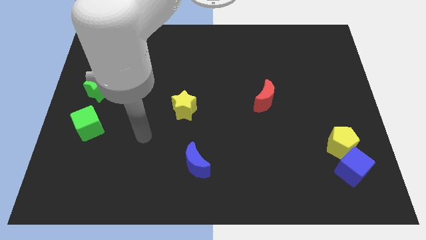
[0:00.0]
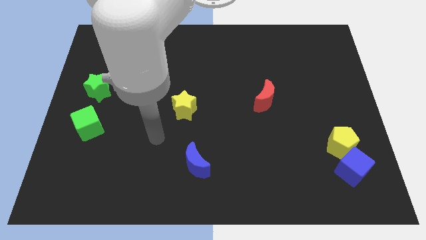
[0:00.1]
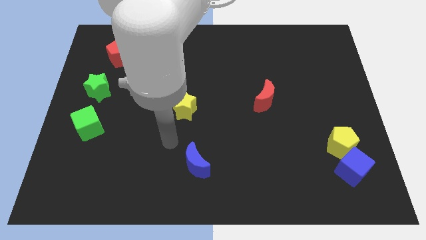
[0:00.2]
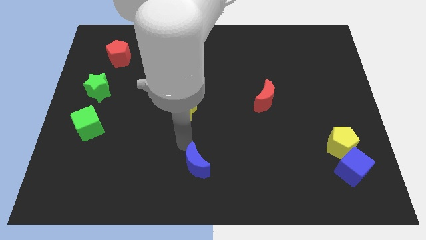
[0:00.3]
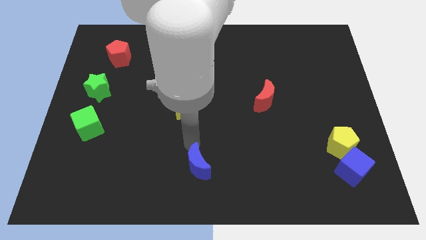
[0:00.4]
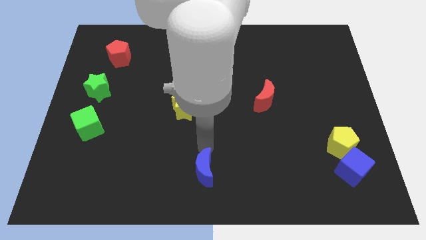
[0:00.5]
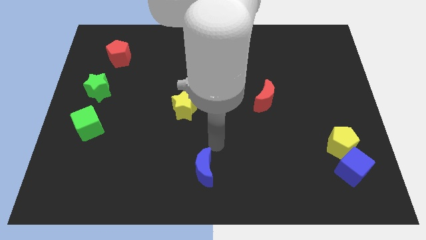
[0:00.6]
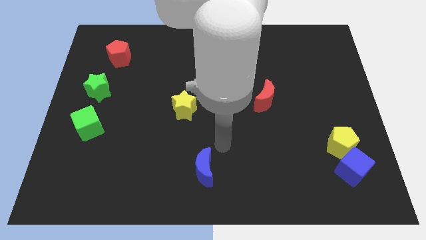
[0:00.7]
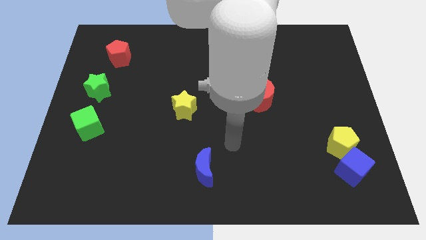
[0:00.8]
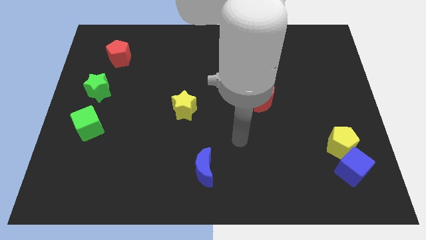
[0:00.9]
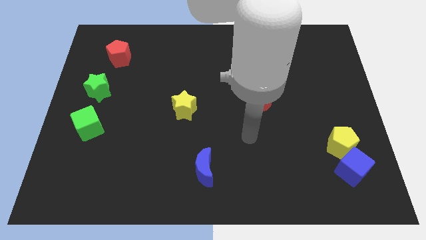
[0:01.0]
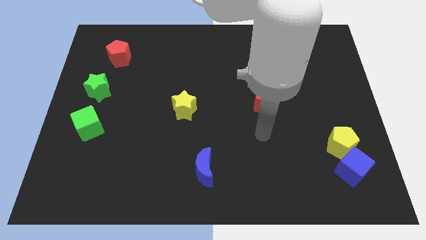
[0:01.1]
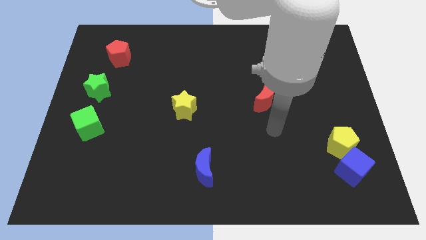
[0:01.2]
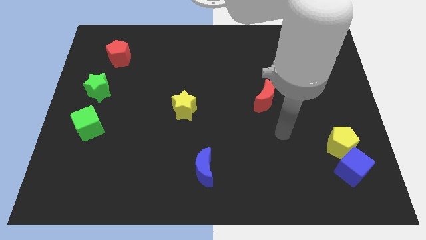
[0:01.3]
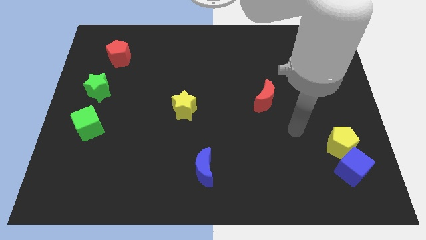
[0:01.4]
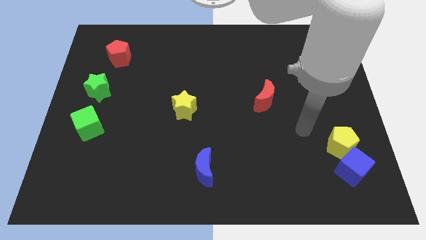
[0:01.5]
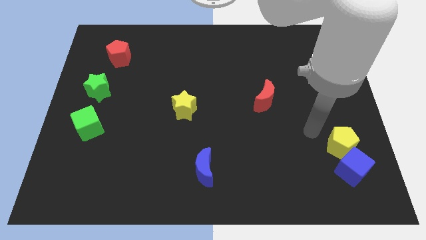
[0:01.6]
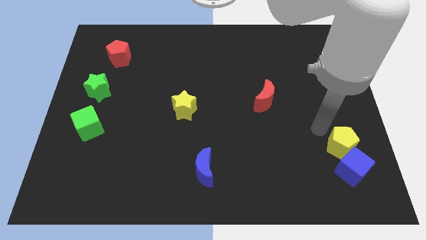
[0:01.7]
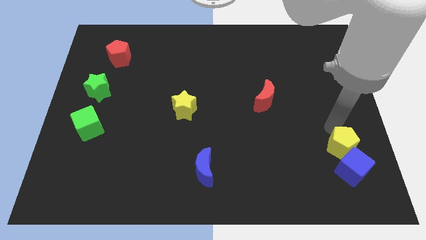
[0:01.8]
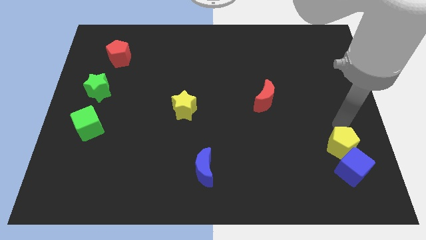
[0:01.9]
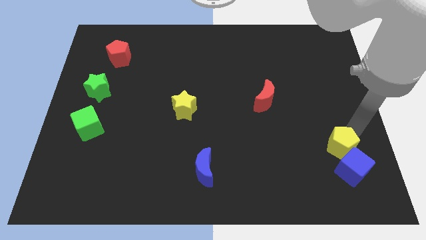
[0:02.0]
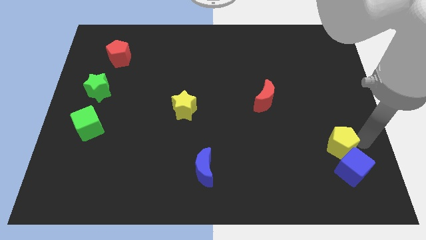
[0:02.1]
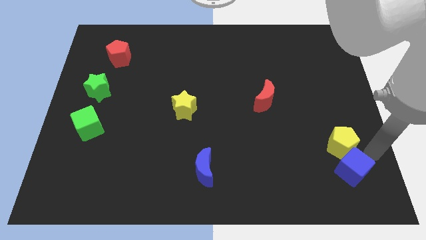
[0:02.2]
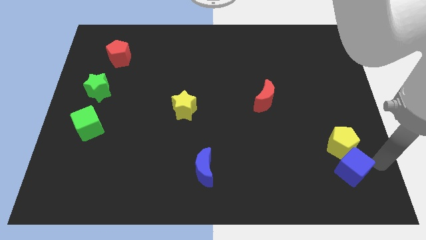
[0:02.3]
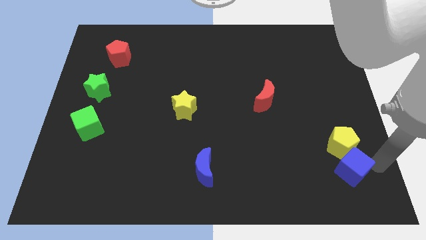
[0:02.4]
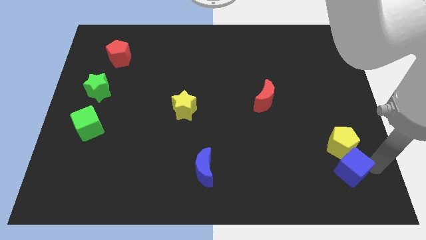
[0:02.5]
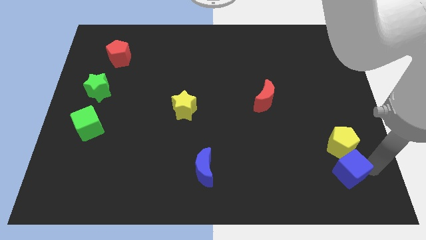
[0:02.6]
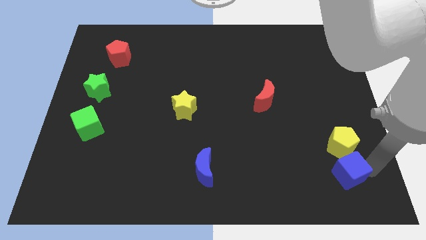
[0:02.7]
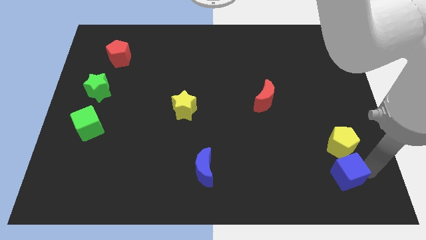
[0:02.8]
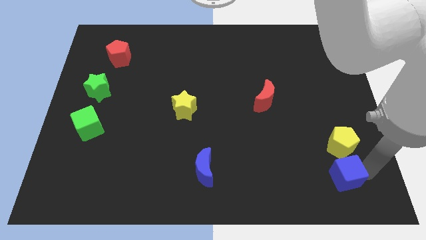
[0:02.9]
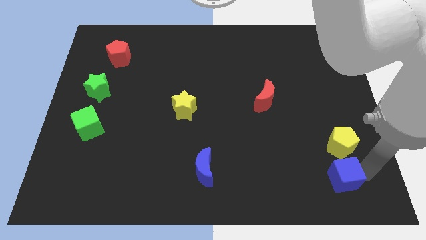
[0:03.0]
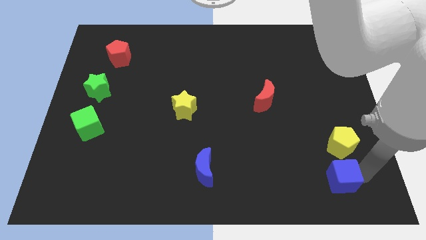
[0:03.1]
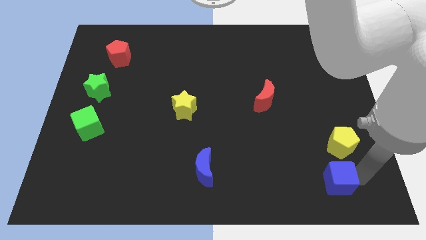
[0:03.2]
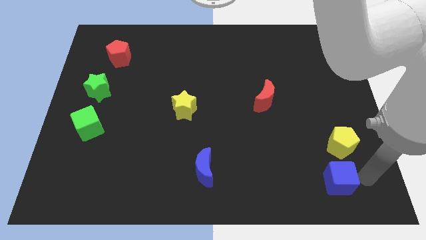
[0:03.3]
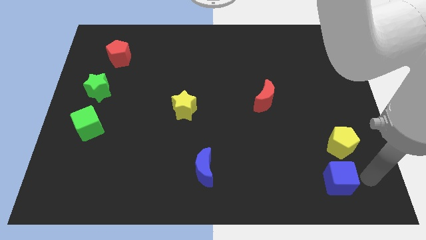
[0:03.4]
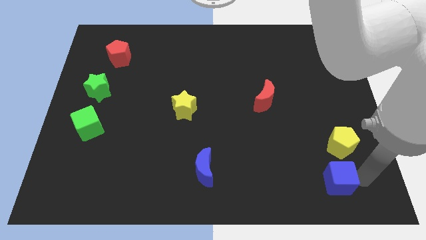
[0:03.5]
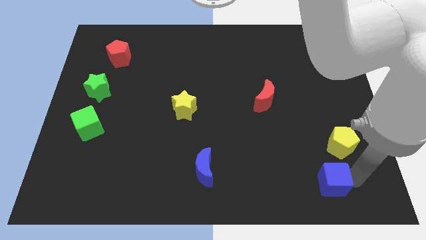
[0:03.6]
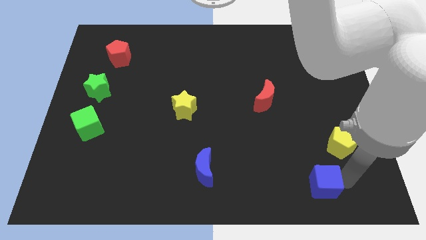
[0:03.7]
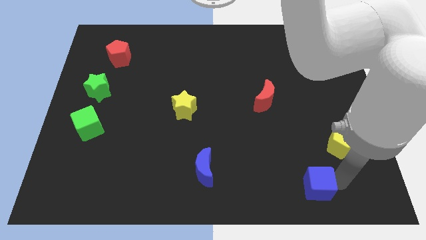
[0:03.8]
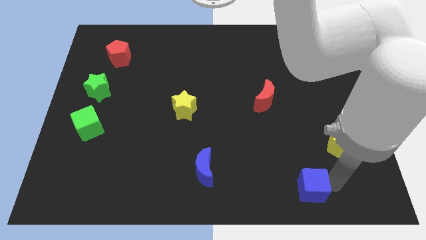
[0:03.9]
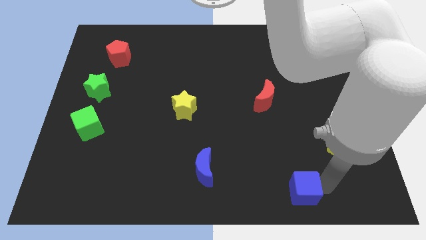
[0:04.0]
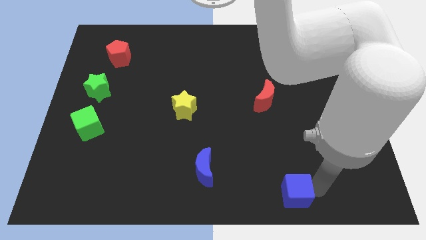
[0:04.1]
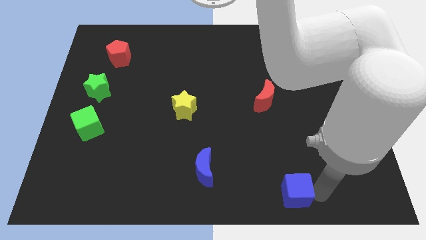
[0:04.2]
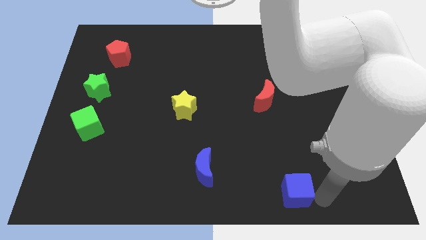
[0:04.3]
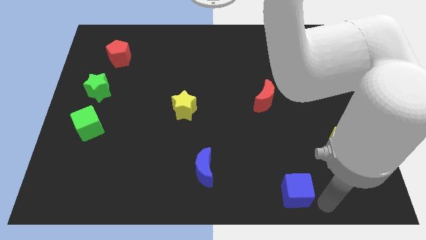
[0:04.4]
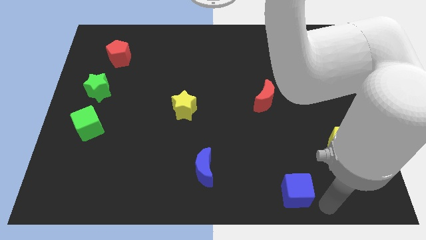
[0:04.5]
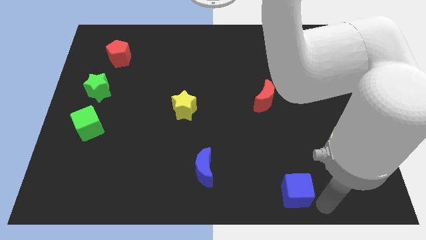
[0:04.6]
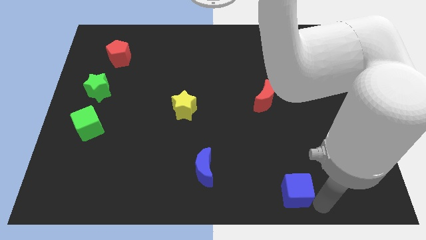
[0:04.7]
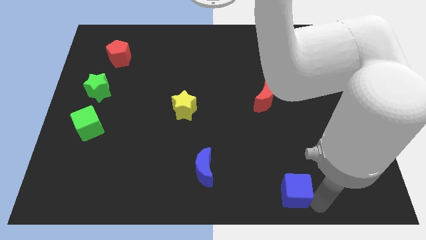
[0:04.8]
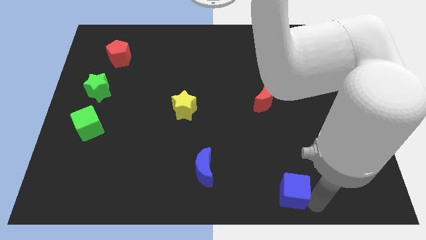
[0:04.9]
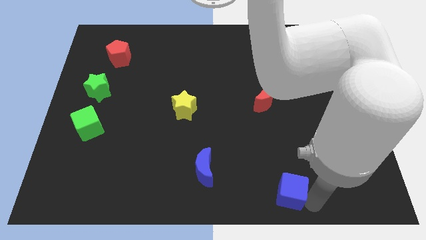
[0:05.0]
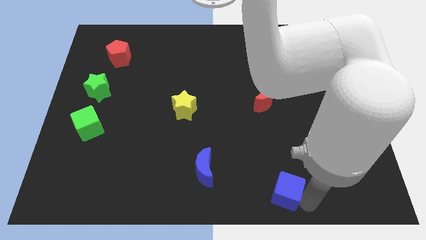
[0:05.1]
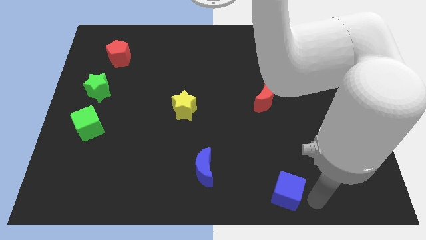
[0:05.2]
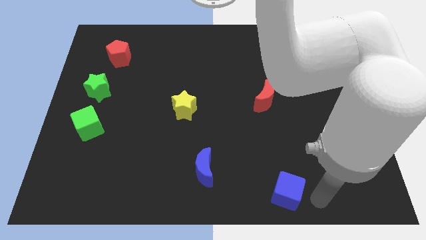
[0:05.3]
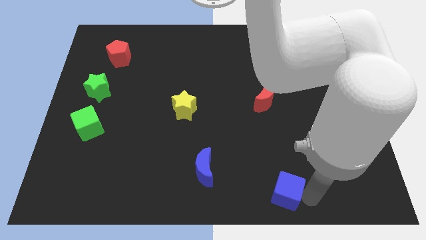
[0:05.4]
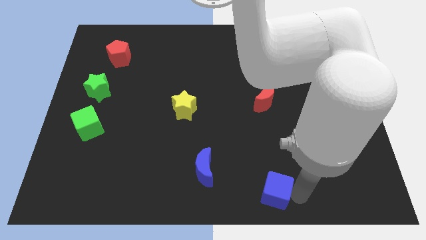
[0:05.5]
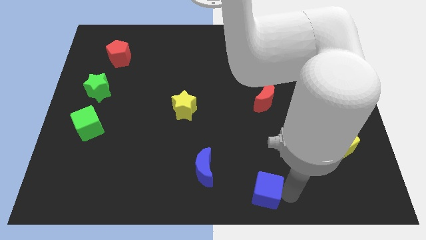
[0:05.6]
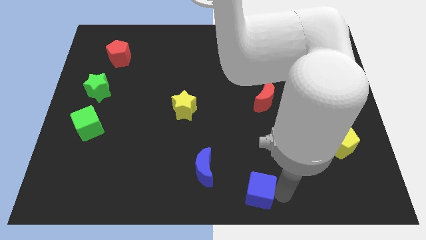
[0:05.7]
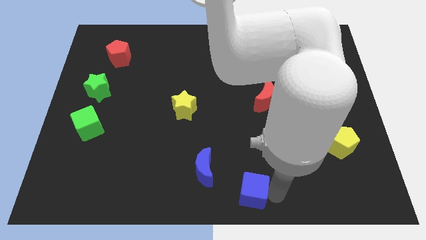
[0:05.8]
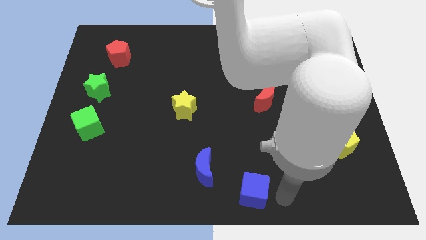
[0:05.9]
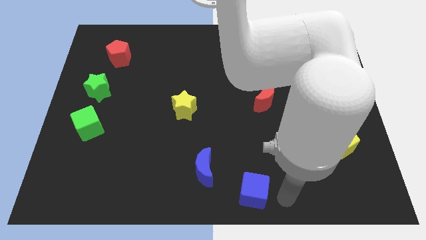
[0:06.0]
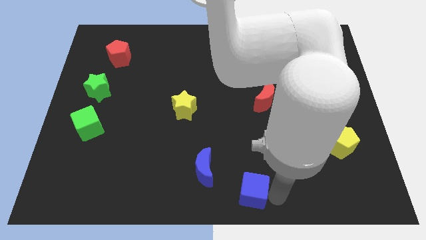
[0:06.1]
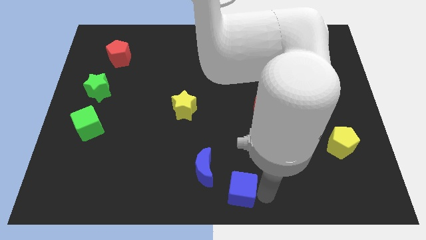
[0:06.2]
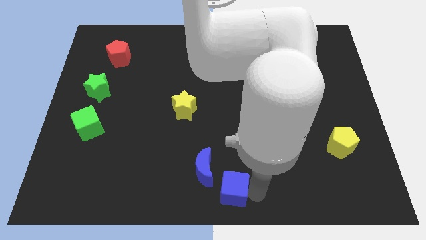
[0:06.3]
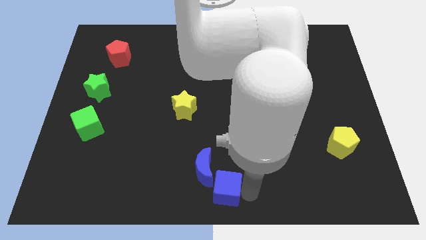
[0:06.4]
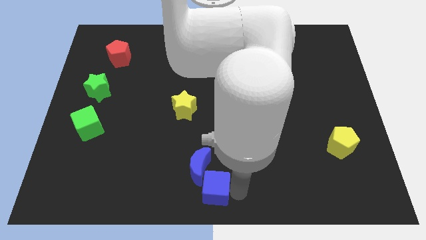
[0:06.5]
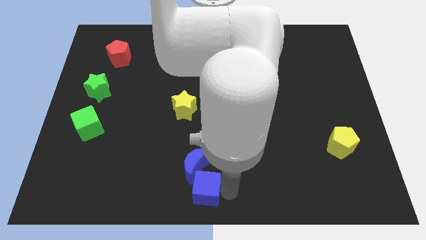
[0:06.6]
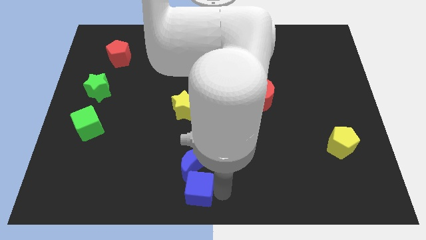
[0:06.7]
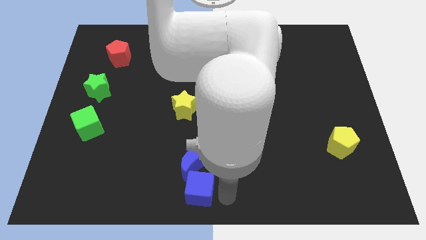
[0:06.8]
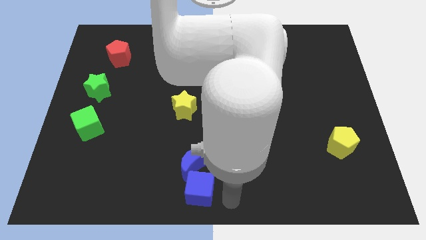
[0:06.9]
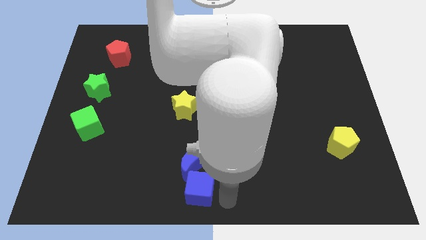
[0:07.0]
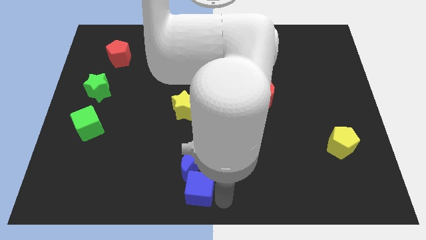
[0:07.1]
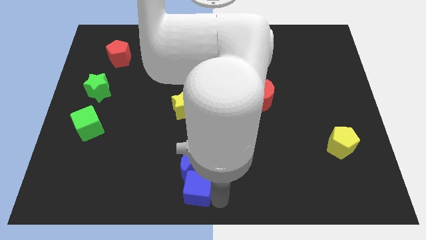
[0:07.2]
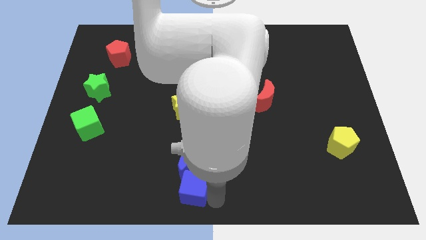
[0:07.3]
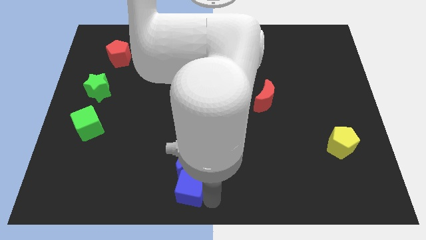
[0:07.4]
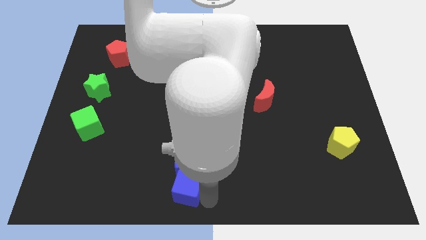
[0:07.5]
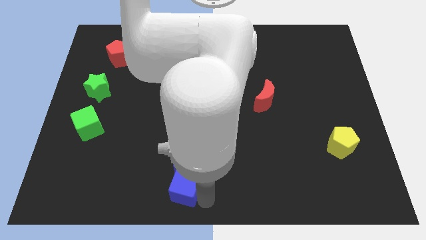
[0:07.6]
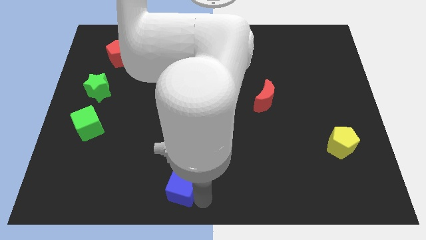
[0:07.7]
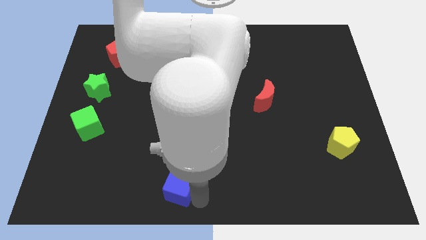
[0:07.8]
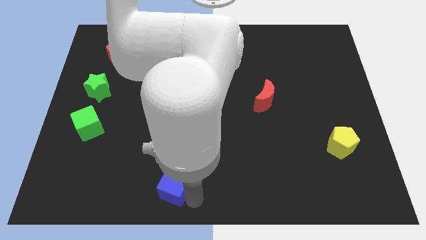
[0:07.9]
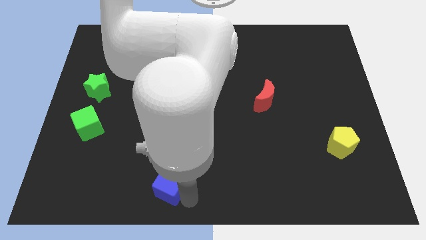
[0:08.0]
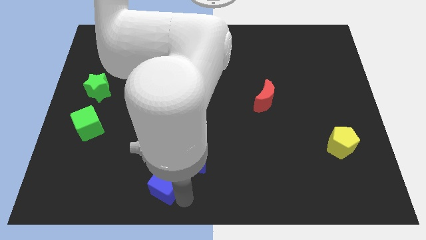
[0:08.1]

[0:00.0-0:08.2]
put the blue cube to the left of the blue moon

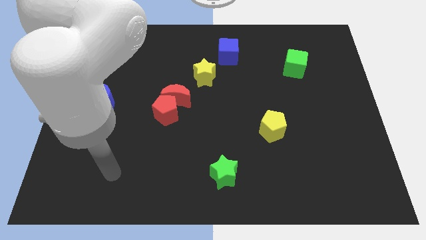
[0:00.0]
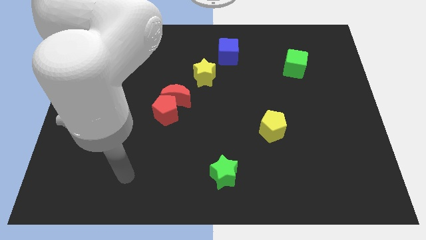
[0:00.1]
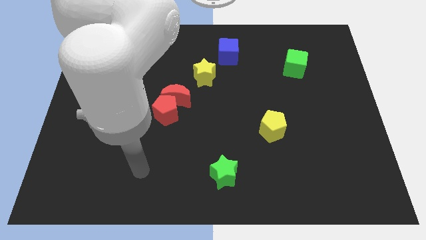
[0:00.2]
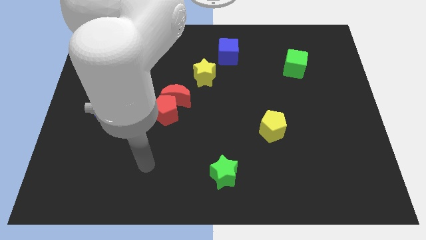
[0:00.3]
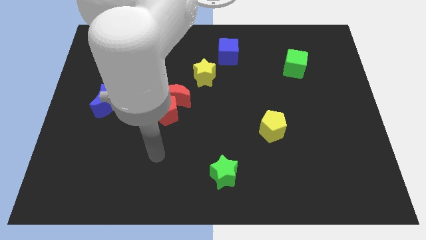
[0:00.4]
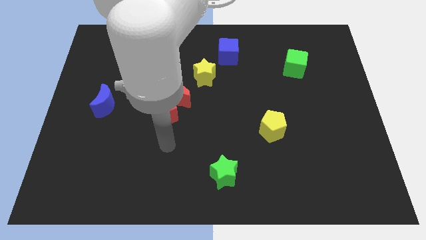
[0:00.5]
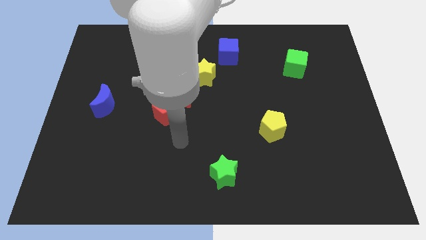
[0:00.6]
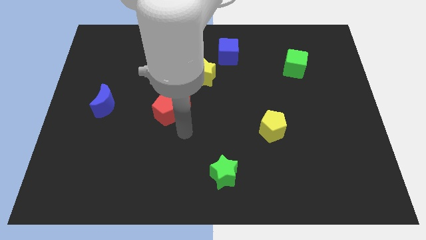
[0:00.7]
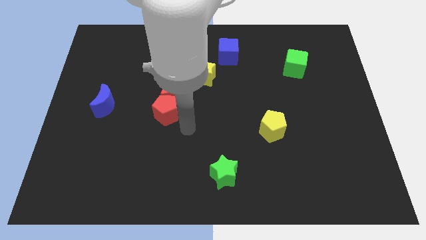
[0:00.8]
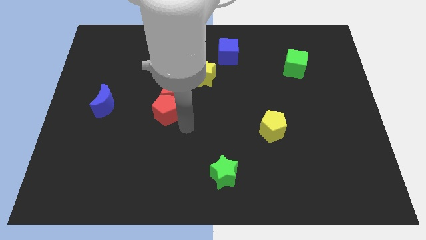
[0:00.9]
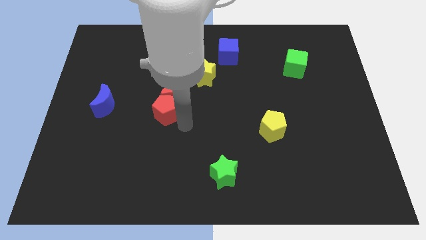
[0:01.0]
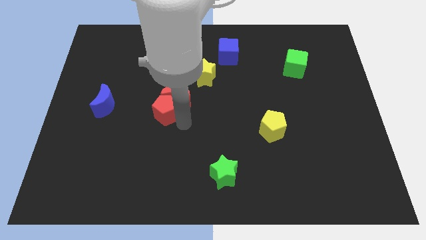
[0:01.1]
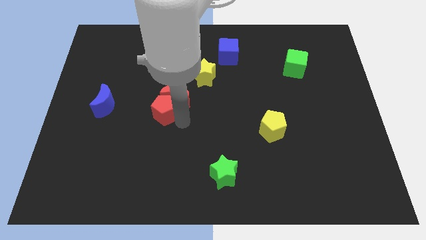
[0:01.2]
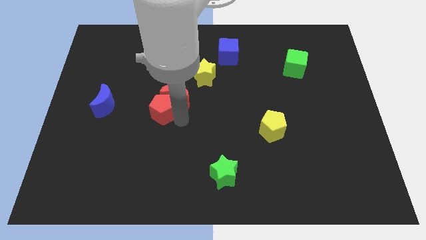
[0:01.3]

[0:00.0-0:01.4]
move the red pentagon left of the red moon
